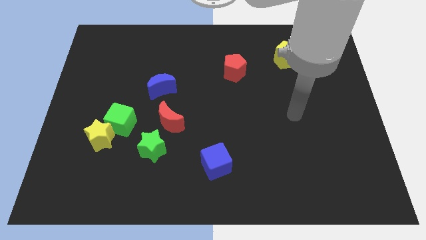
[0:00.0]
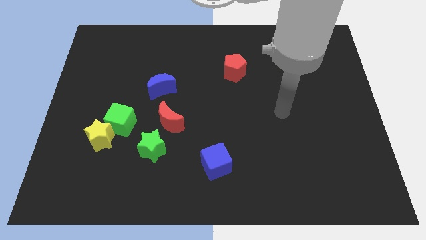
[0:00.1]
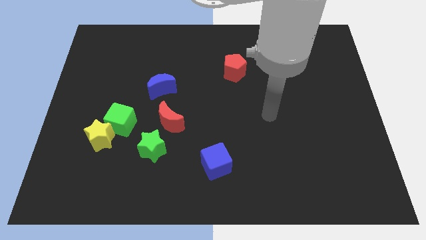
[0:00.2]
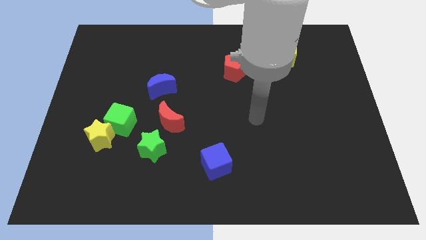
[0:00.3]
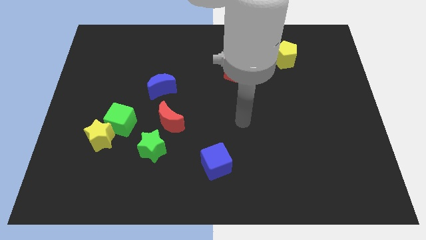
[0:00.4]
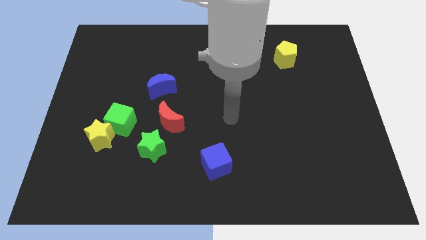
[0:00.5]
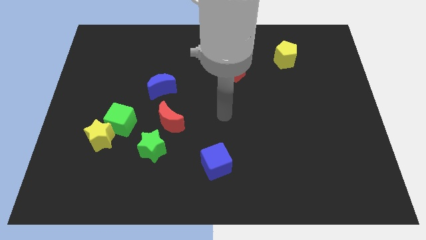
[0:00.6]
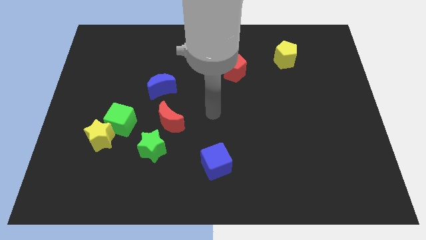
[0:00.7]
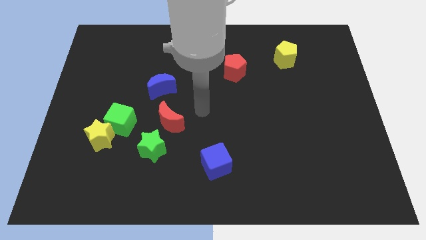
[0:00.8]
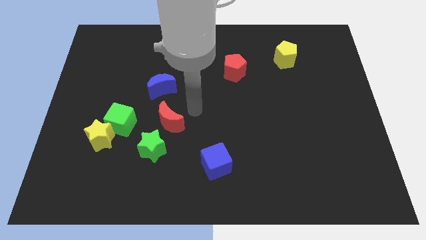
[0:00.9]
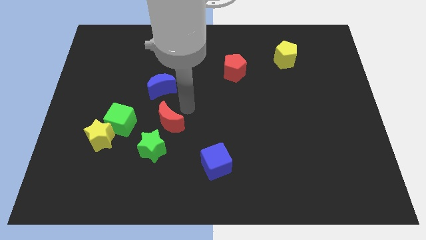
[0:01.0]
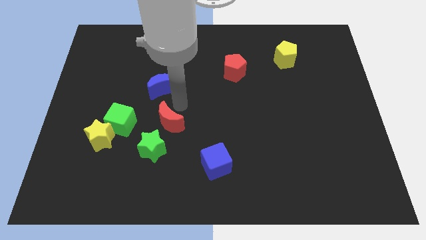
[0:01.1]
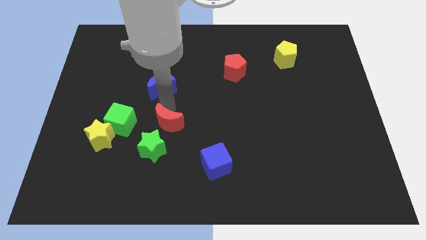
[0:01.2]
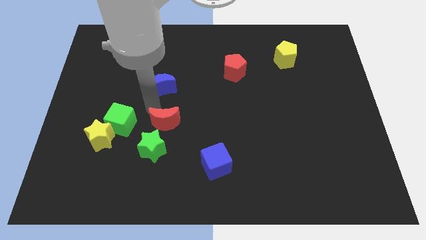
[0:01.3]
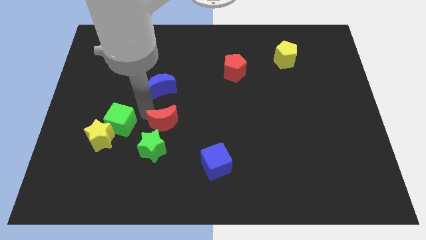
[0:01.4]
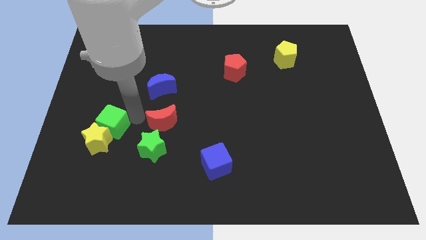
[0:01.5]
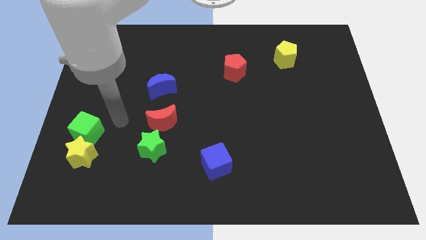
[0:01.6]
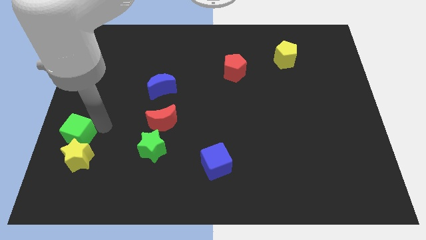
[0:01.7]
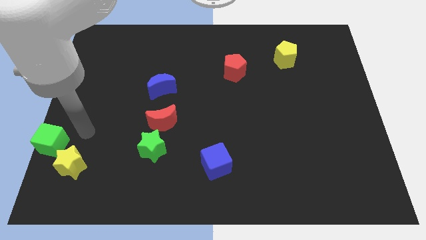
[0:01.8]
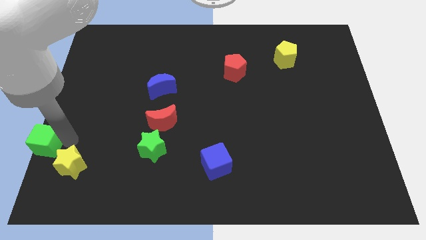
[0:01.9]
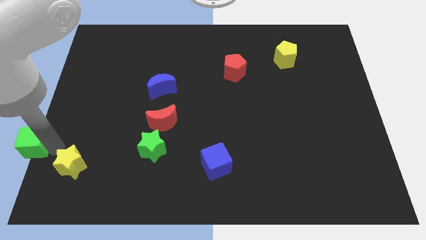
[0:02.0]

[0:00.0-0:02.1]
move the yellow star away from the green cube

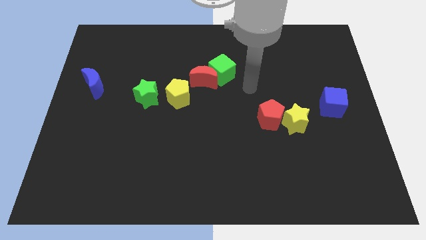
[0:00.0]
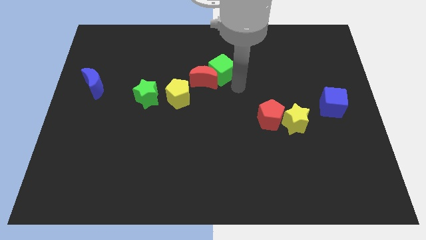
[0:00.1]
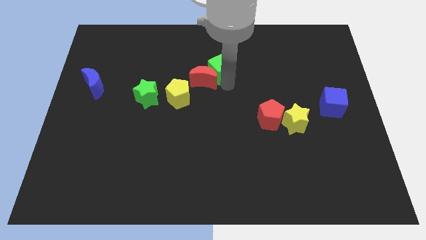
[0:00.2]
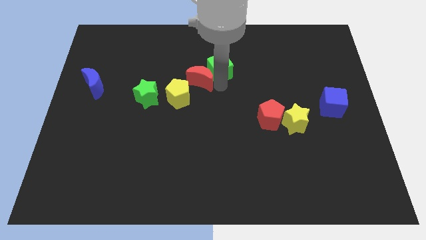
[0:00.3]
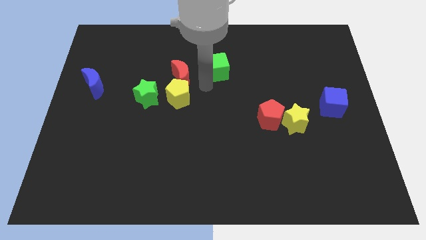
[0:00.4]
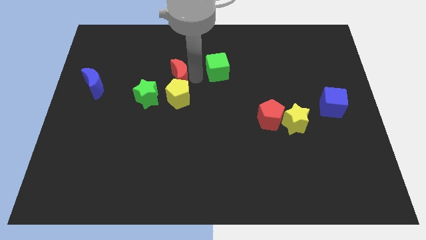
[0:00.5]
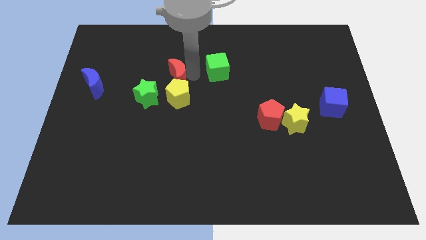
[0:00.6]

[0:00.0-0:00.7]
separate the green cube from the red moon

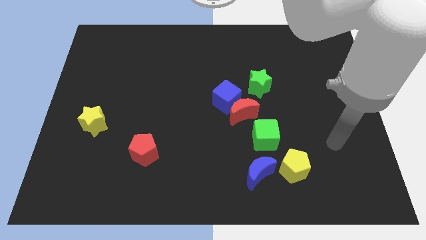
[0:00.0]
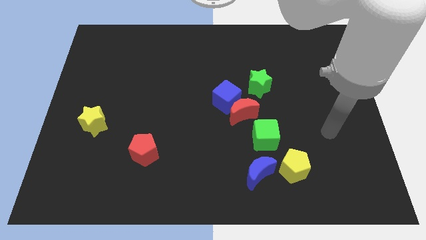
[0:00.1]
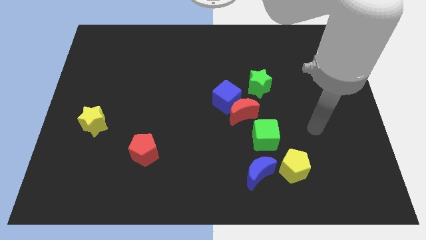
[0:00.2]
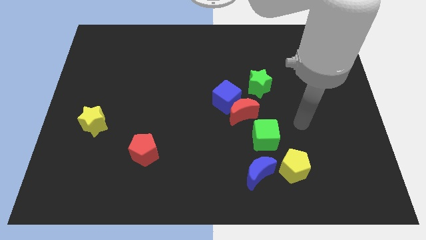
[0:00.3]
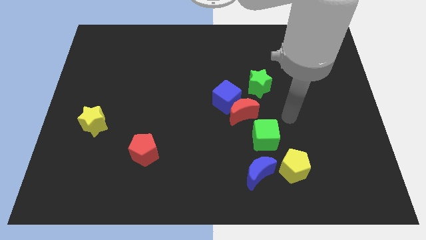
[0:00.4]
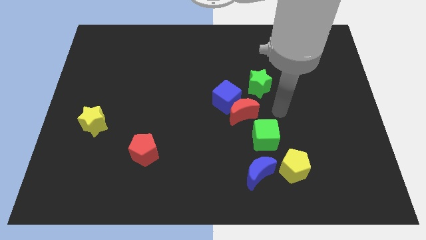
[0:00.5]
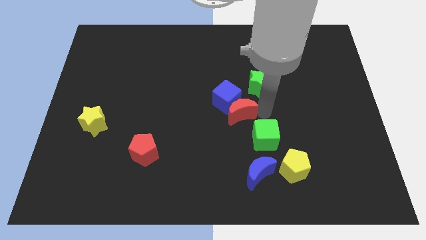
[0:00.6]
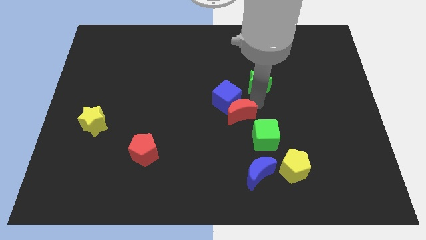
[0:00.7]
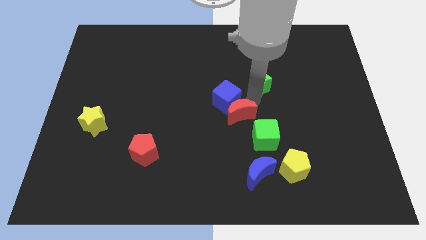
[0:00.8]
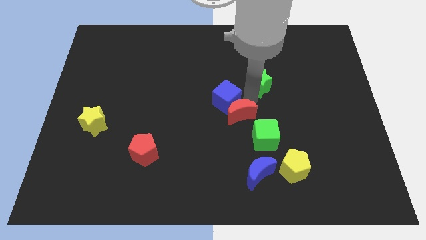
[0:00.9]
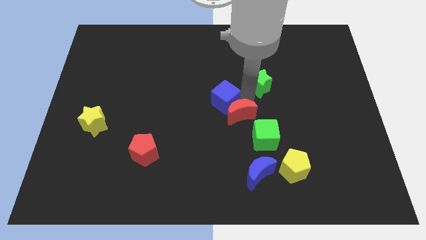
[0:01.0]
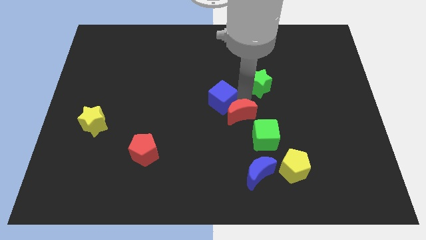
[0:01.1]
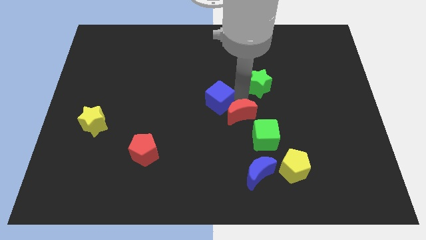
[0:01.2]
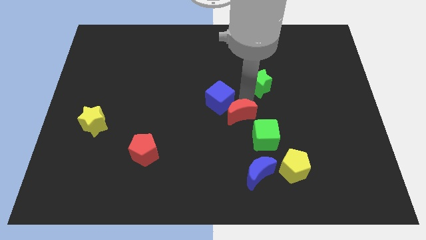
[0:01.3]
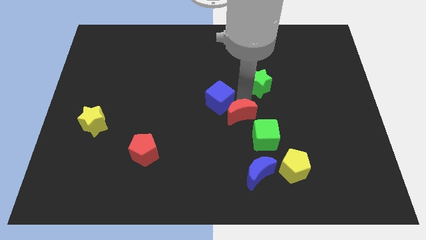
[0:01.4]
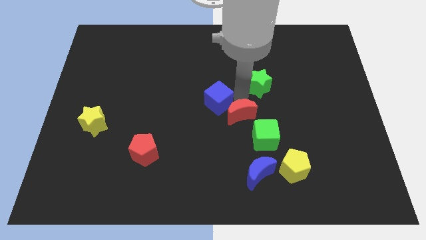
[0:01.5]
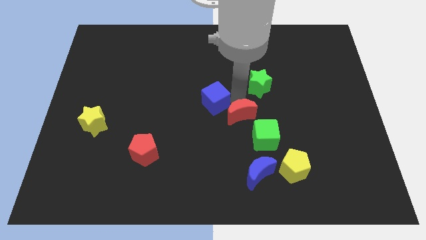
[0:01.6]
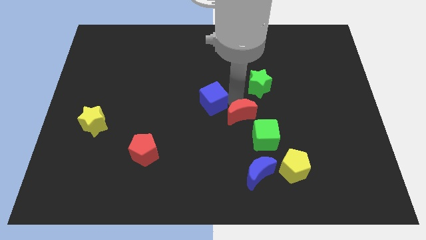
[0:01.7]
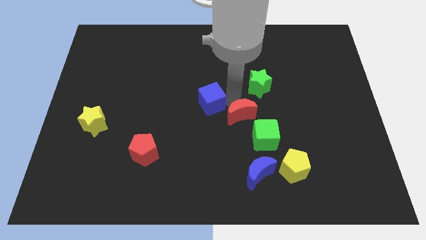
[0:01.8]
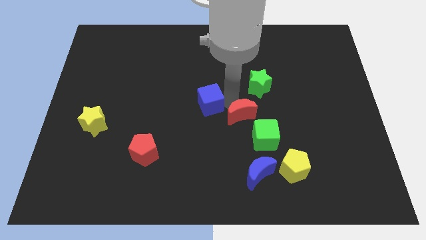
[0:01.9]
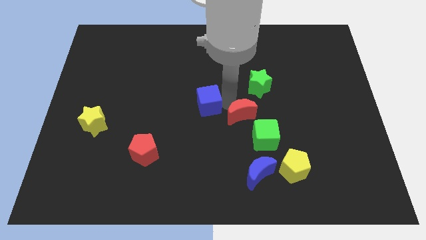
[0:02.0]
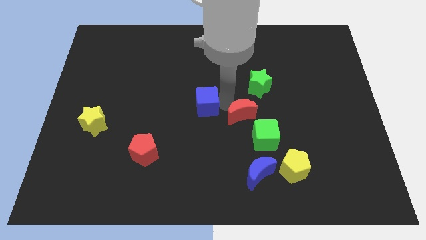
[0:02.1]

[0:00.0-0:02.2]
separate the blue cube from the red moon and green star

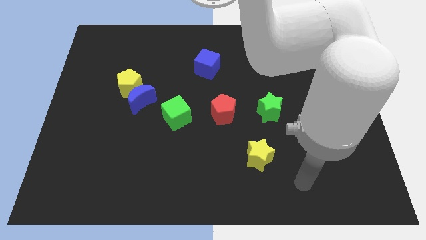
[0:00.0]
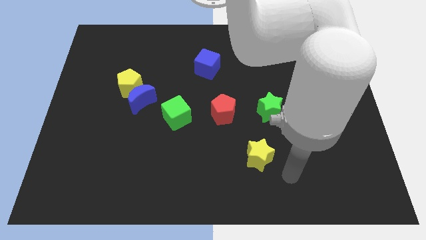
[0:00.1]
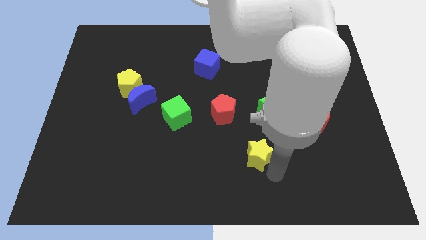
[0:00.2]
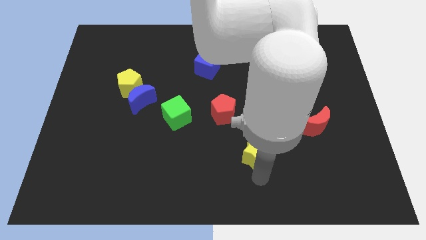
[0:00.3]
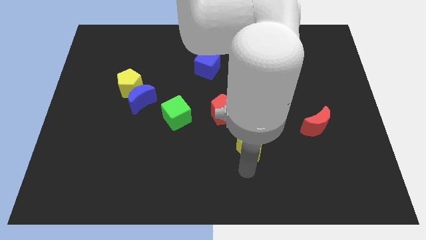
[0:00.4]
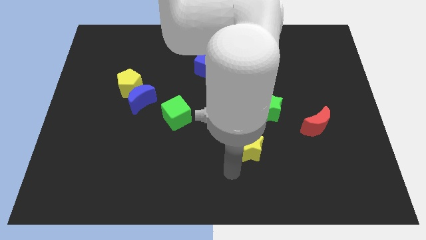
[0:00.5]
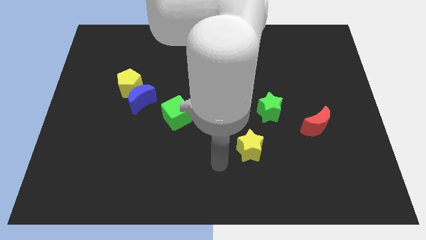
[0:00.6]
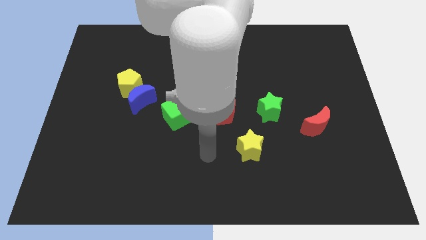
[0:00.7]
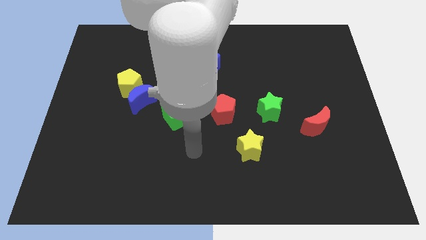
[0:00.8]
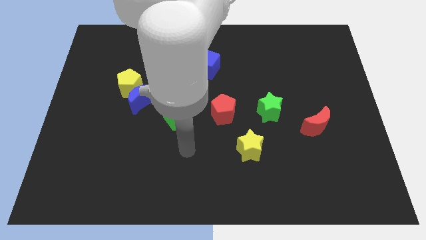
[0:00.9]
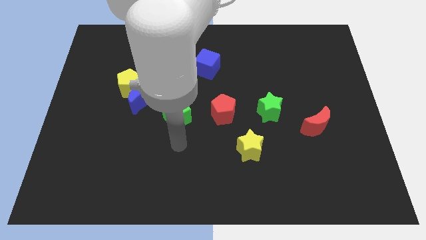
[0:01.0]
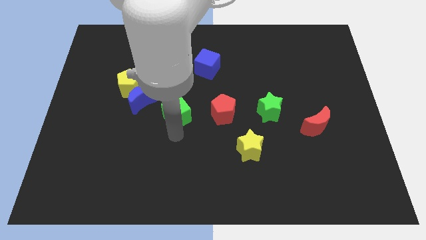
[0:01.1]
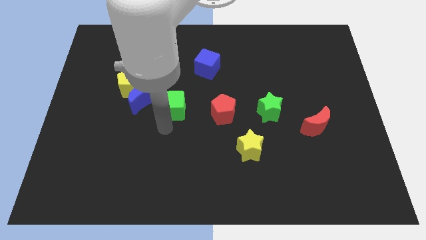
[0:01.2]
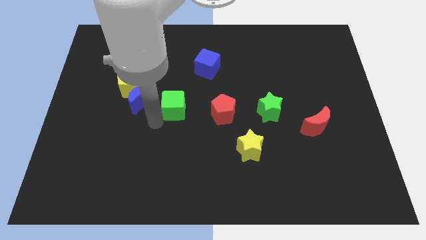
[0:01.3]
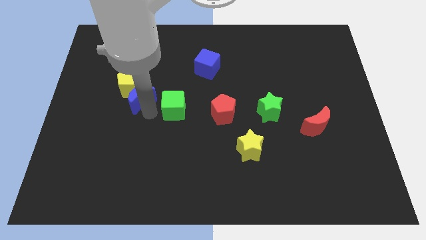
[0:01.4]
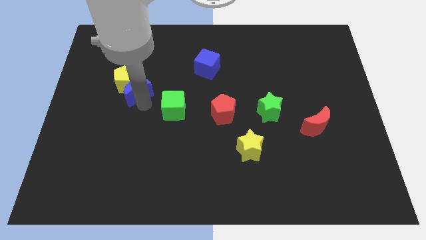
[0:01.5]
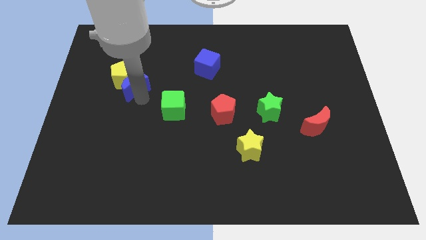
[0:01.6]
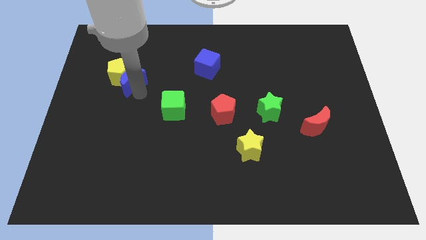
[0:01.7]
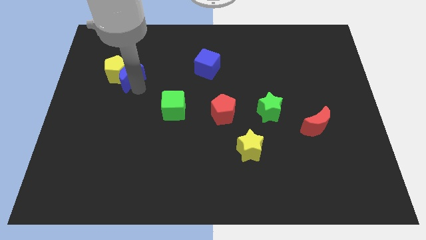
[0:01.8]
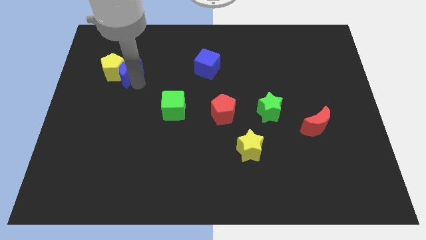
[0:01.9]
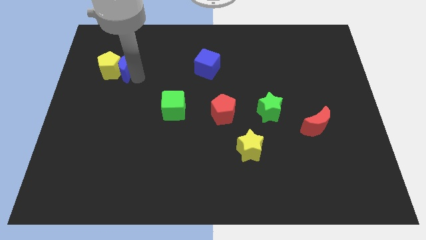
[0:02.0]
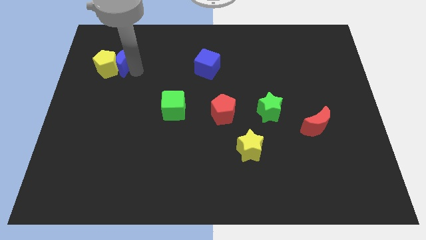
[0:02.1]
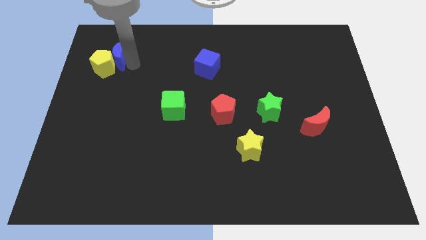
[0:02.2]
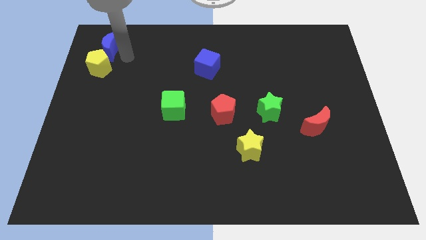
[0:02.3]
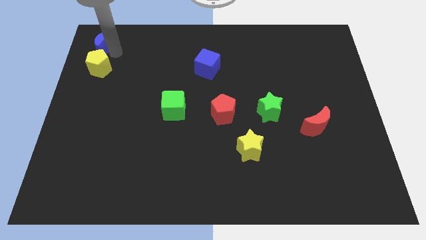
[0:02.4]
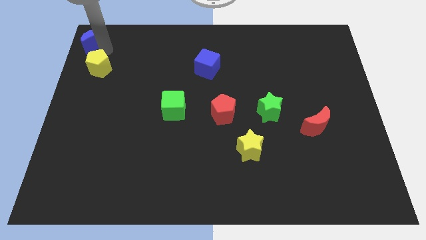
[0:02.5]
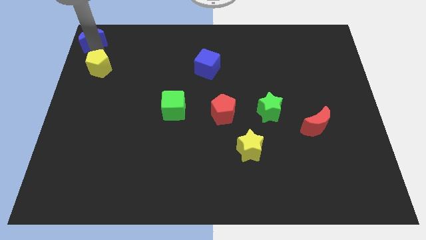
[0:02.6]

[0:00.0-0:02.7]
pull the yellow pentagon apart from the blue moon

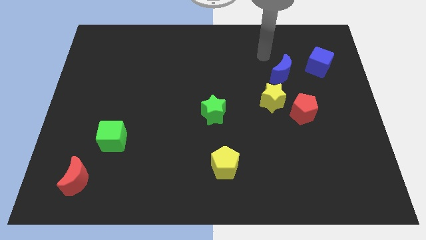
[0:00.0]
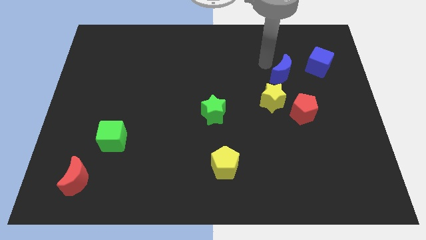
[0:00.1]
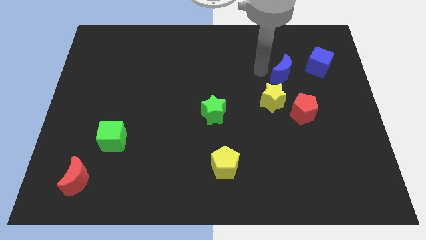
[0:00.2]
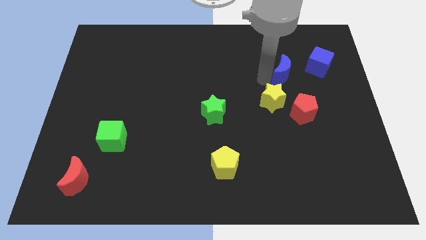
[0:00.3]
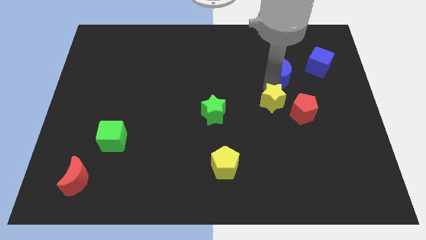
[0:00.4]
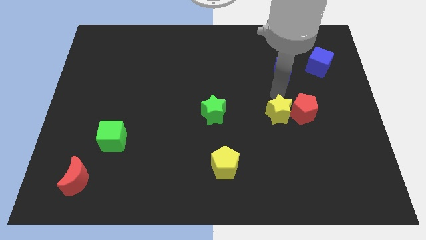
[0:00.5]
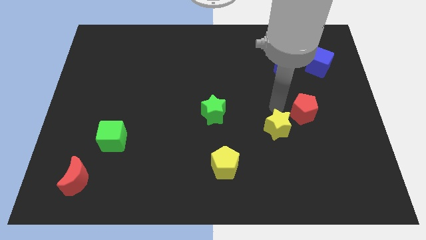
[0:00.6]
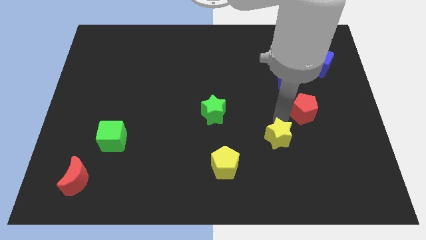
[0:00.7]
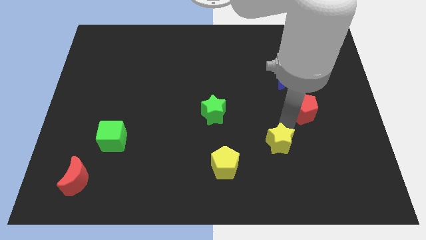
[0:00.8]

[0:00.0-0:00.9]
separate the red pentagon from the yellow star

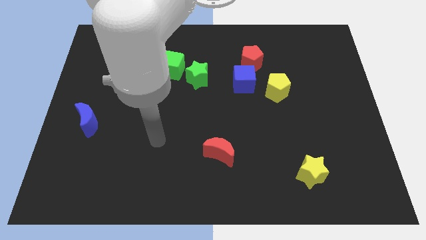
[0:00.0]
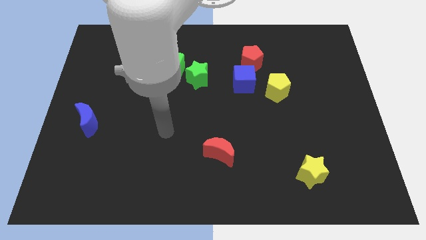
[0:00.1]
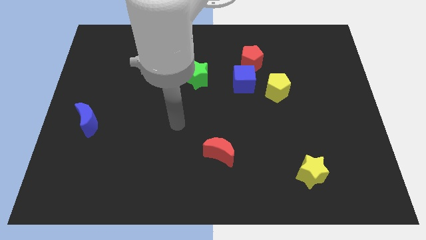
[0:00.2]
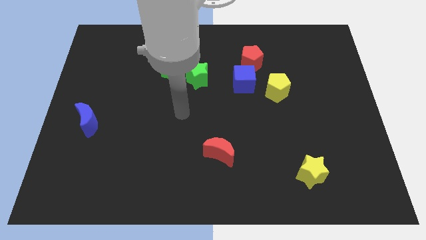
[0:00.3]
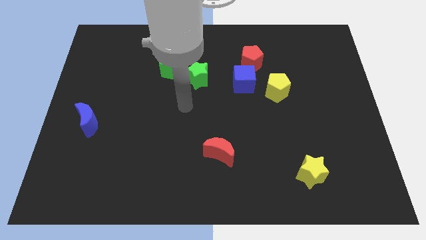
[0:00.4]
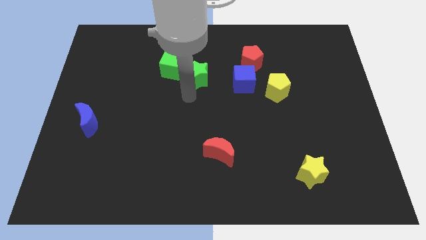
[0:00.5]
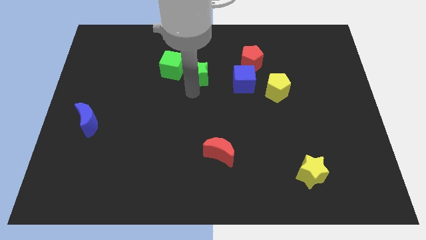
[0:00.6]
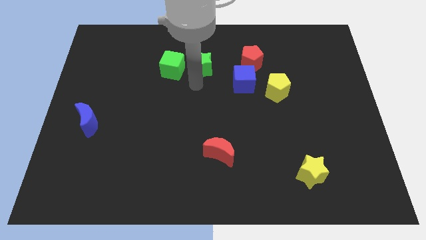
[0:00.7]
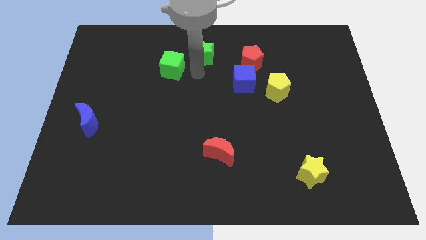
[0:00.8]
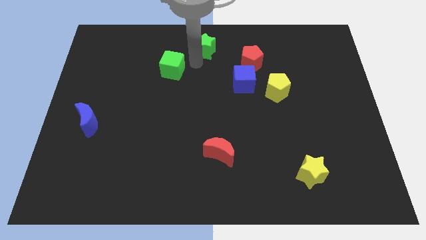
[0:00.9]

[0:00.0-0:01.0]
pull the green cube apart from the green star
